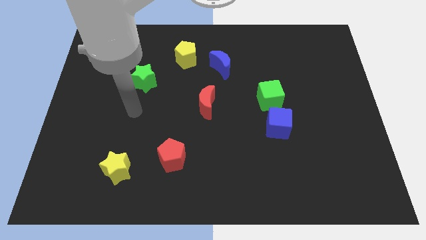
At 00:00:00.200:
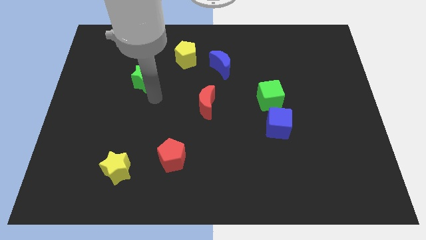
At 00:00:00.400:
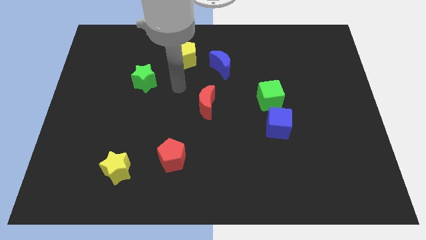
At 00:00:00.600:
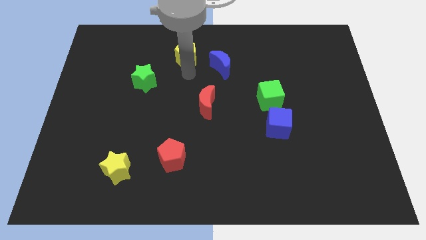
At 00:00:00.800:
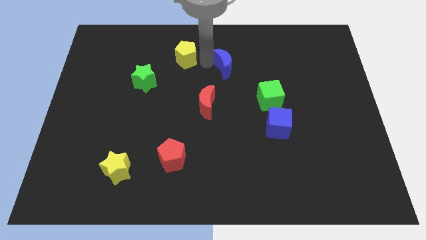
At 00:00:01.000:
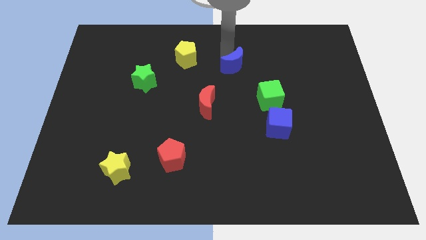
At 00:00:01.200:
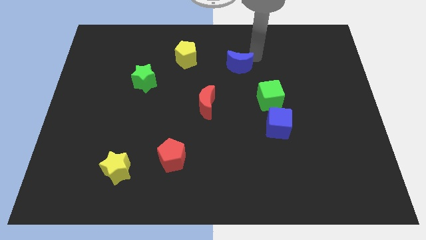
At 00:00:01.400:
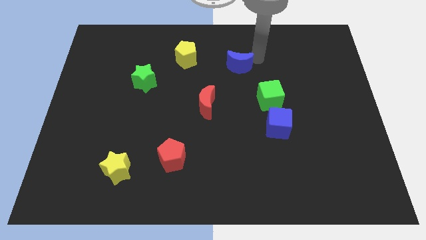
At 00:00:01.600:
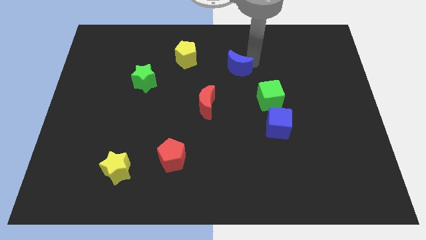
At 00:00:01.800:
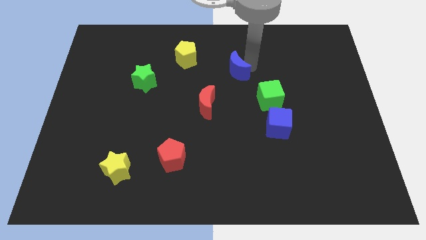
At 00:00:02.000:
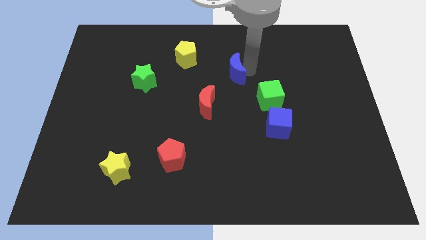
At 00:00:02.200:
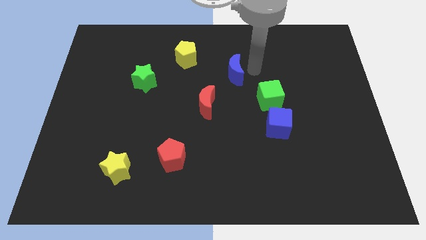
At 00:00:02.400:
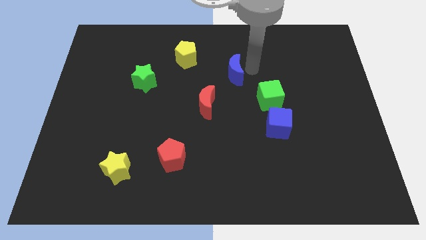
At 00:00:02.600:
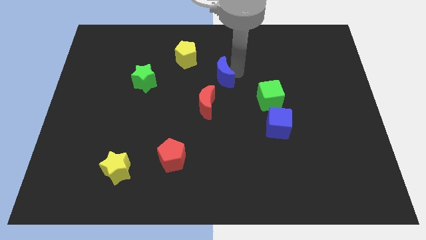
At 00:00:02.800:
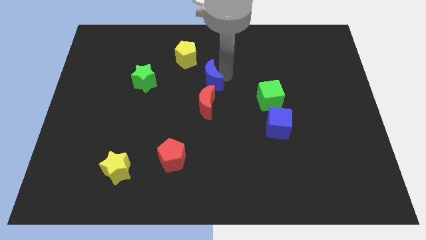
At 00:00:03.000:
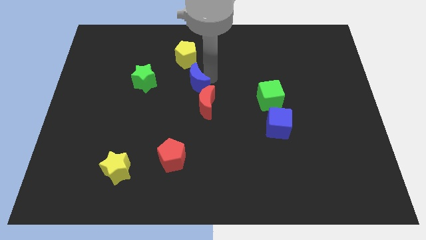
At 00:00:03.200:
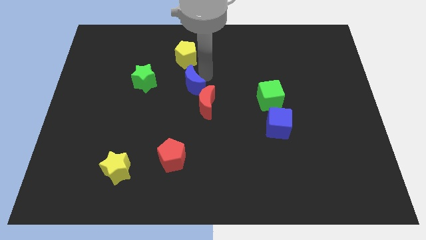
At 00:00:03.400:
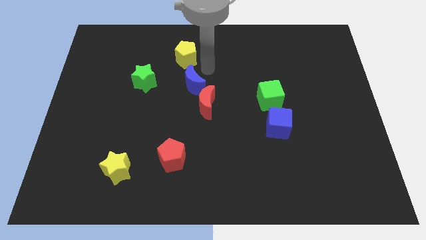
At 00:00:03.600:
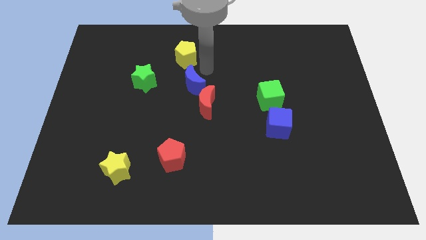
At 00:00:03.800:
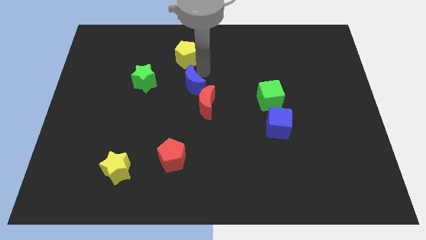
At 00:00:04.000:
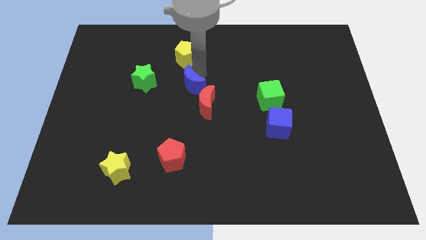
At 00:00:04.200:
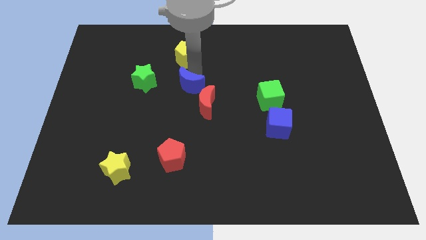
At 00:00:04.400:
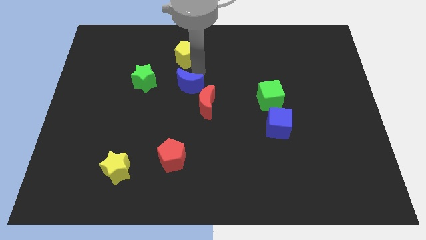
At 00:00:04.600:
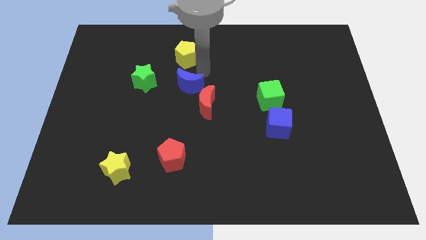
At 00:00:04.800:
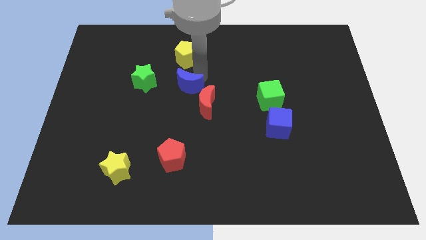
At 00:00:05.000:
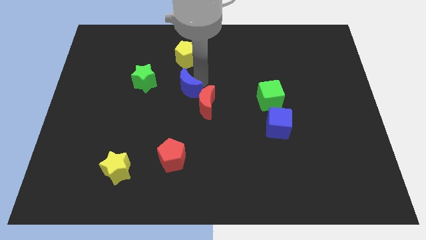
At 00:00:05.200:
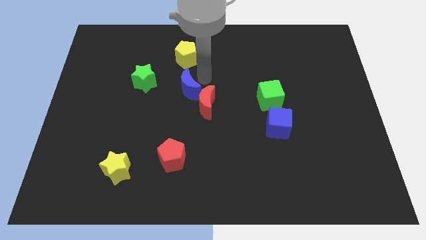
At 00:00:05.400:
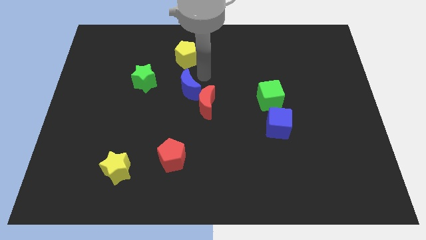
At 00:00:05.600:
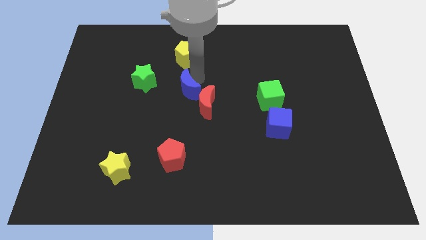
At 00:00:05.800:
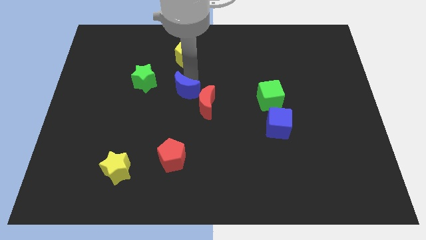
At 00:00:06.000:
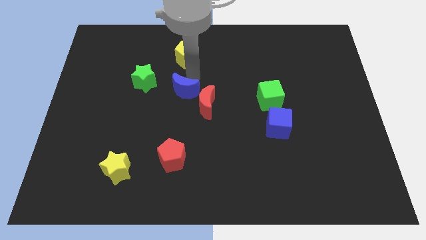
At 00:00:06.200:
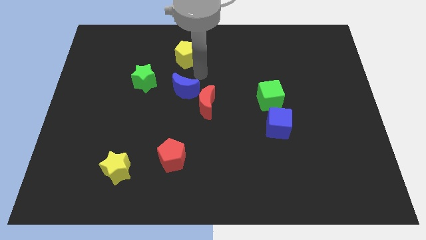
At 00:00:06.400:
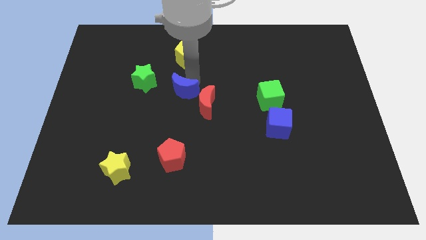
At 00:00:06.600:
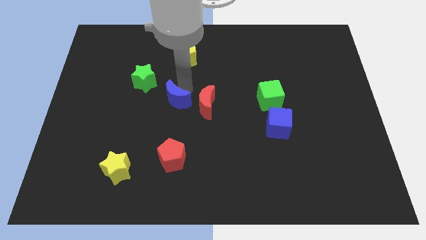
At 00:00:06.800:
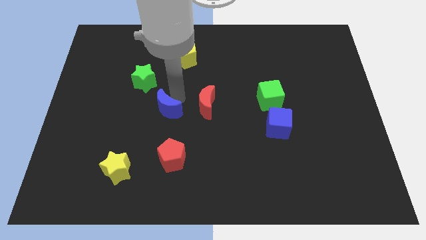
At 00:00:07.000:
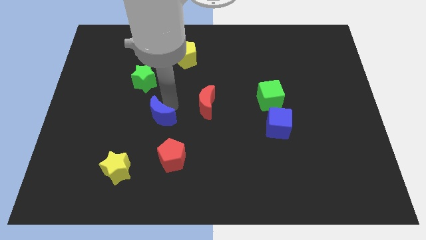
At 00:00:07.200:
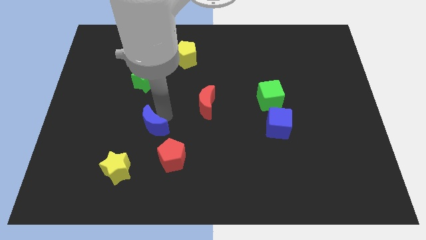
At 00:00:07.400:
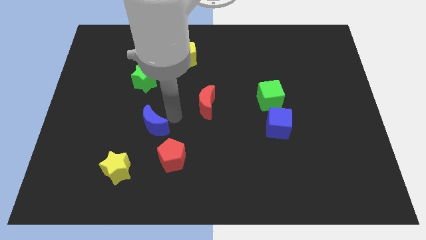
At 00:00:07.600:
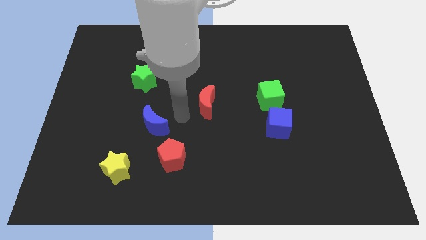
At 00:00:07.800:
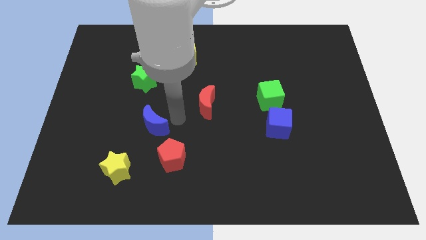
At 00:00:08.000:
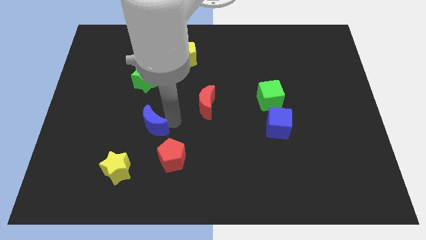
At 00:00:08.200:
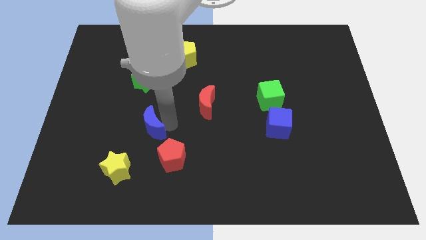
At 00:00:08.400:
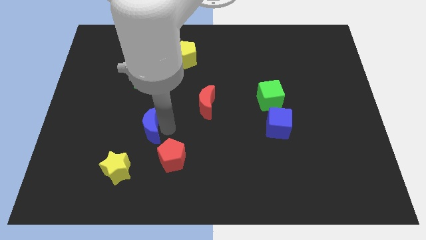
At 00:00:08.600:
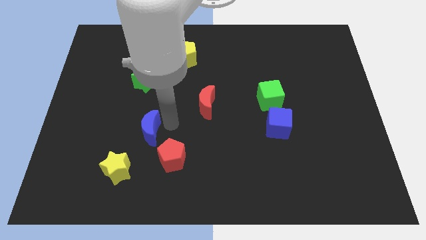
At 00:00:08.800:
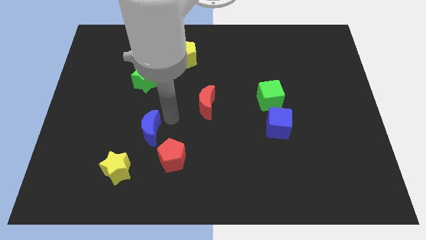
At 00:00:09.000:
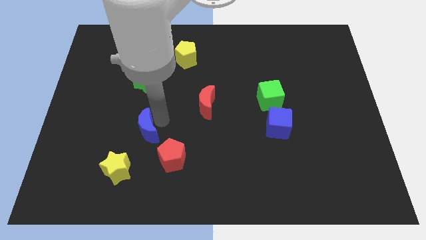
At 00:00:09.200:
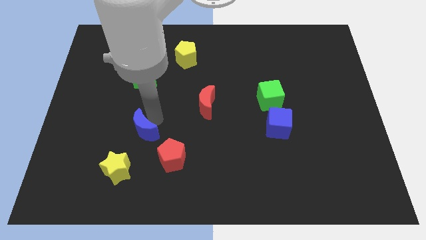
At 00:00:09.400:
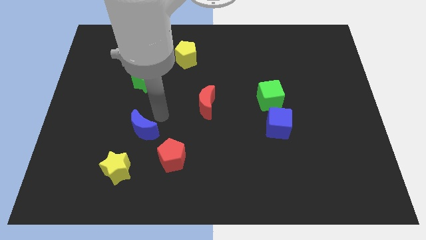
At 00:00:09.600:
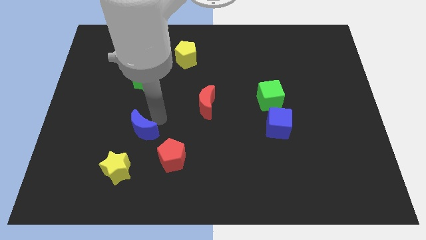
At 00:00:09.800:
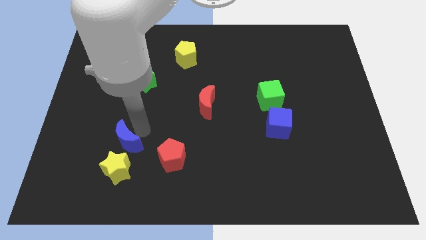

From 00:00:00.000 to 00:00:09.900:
push the blue moon left of the red pentagon

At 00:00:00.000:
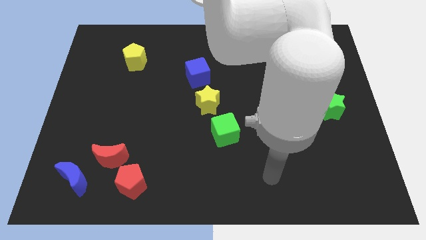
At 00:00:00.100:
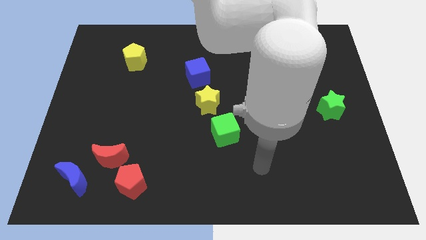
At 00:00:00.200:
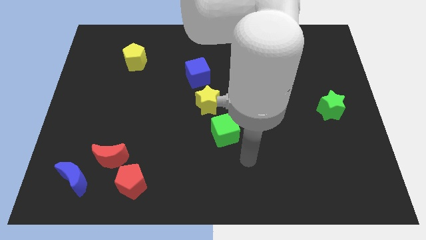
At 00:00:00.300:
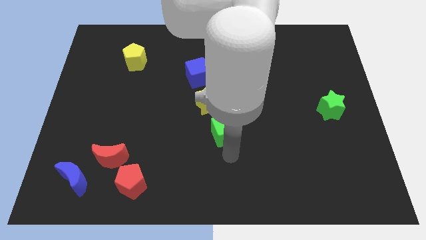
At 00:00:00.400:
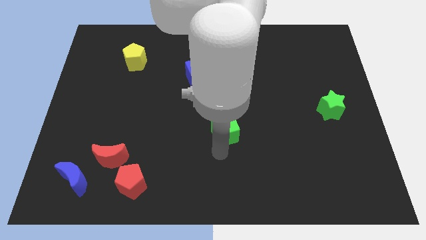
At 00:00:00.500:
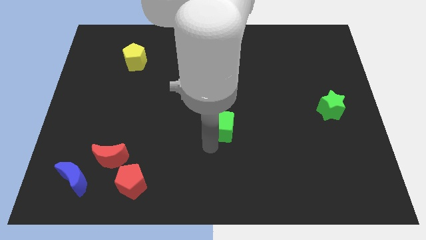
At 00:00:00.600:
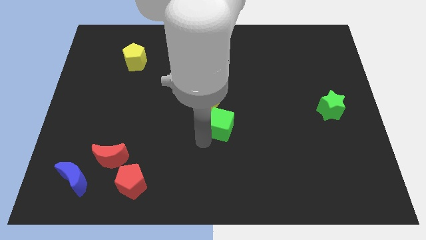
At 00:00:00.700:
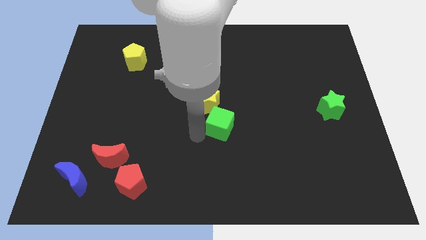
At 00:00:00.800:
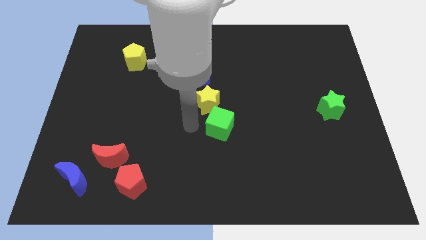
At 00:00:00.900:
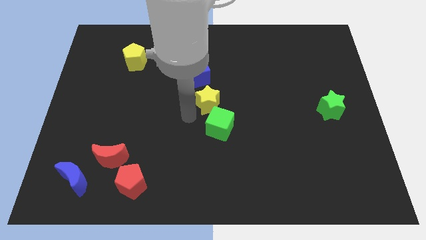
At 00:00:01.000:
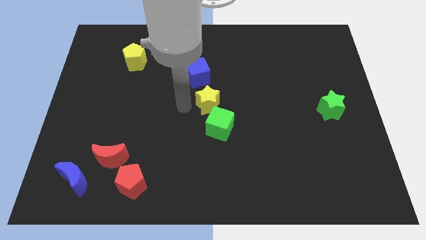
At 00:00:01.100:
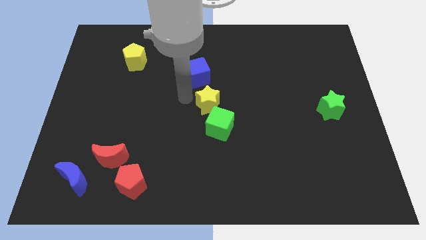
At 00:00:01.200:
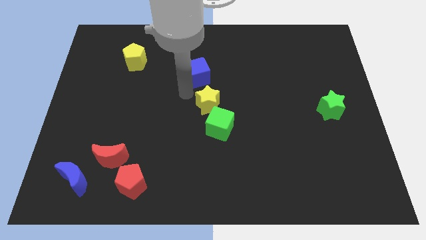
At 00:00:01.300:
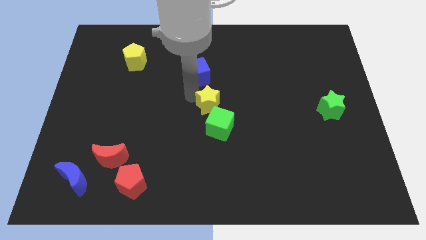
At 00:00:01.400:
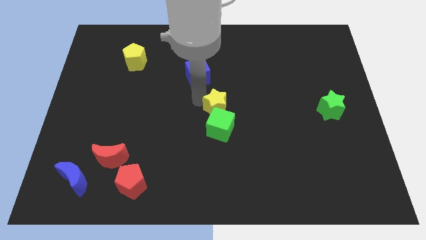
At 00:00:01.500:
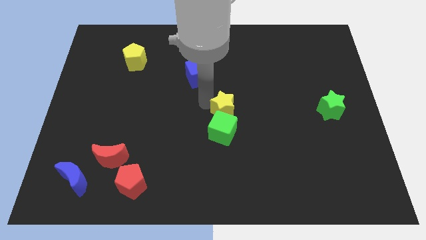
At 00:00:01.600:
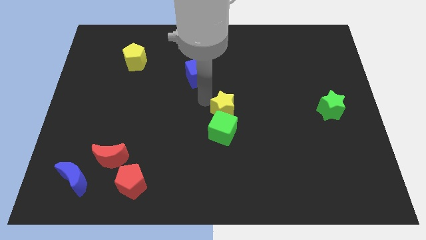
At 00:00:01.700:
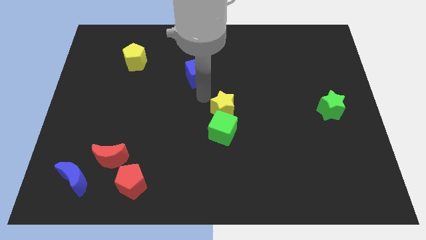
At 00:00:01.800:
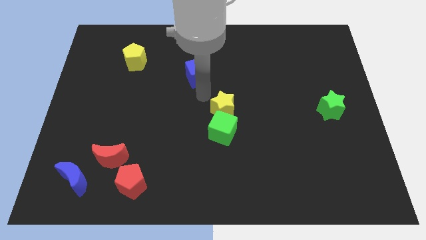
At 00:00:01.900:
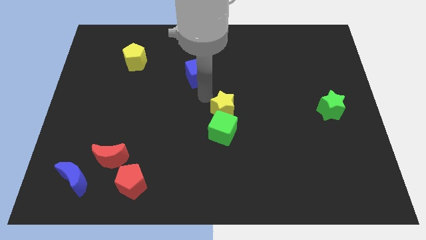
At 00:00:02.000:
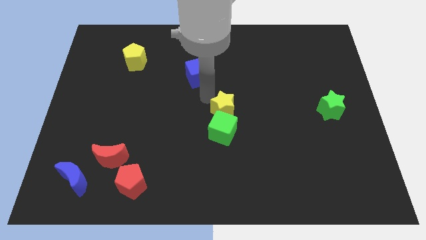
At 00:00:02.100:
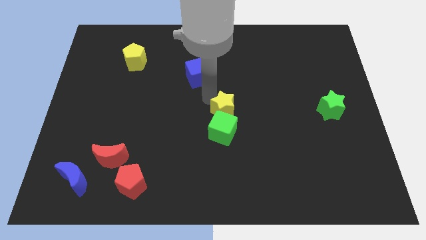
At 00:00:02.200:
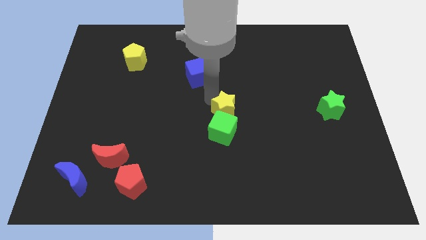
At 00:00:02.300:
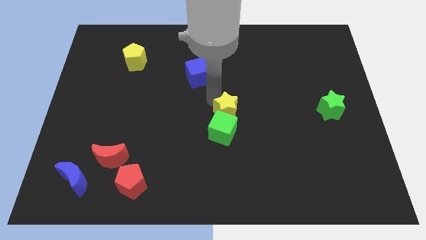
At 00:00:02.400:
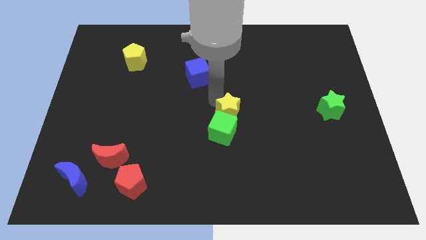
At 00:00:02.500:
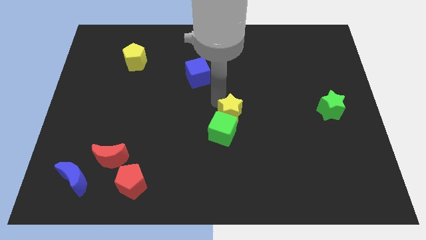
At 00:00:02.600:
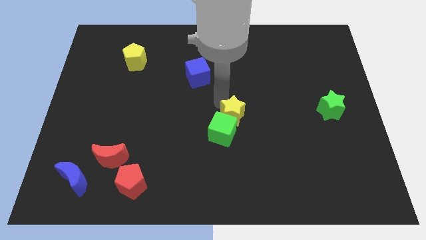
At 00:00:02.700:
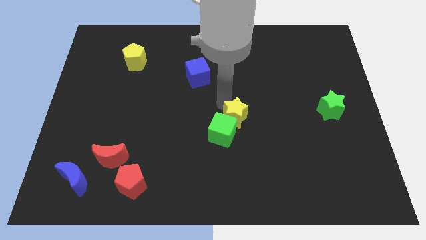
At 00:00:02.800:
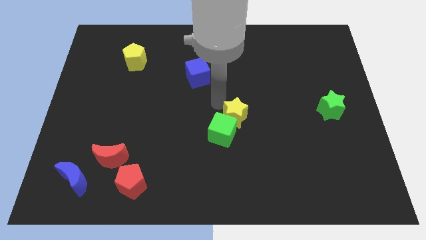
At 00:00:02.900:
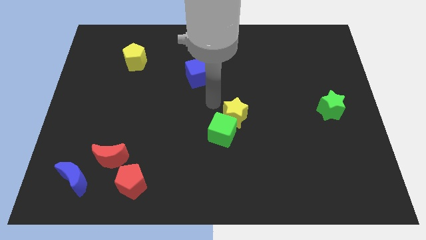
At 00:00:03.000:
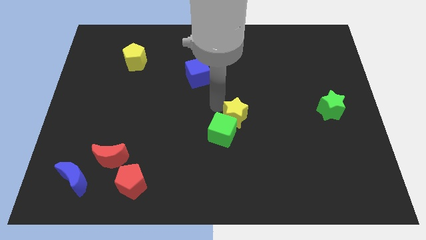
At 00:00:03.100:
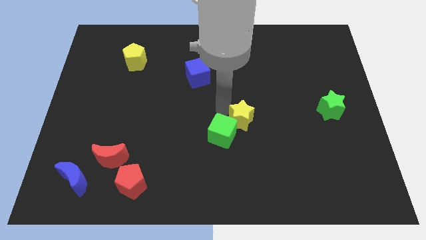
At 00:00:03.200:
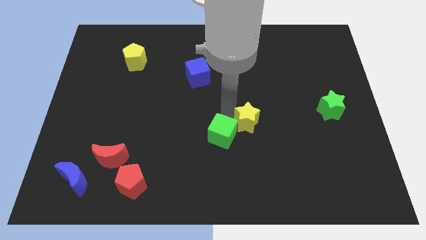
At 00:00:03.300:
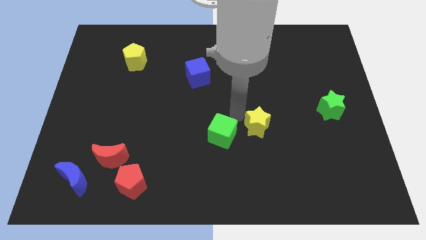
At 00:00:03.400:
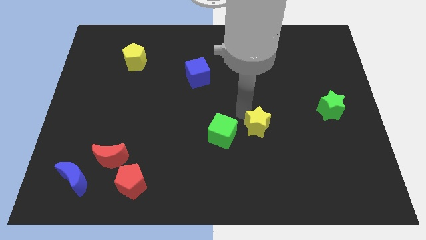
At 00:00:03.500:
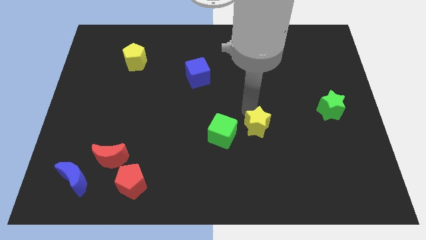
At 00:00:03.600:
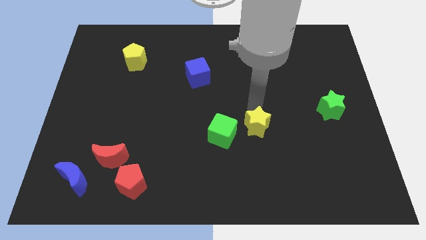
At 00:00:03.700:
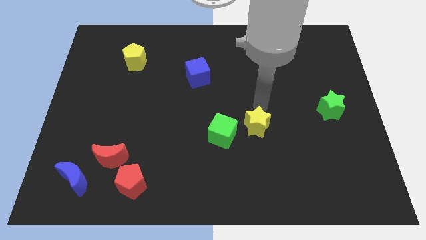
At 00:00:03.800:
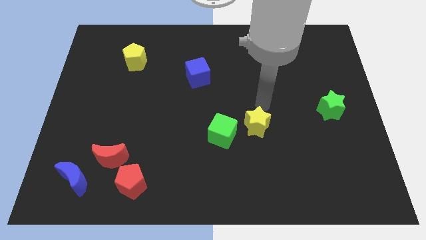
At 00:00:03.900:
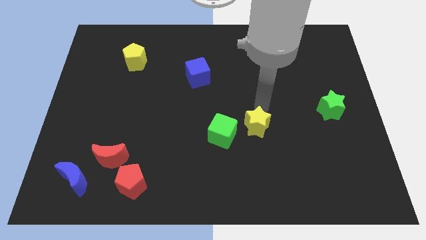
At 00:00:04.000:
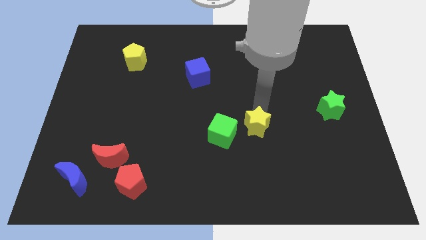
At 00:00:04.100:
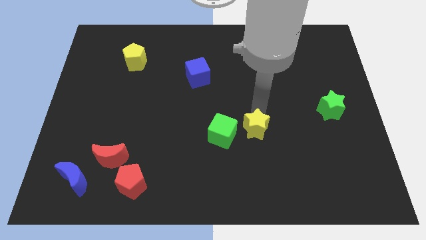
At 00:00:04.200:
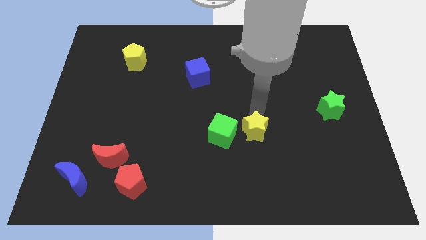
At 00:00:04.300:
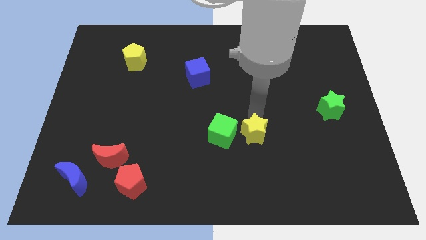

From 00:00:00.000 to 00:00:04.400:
push the yellow star to the bottom right side of the green cube
